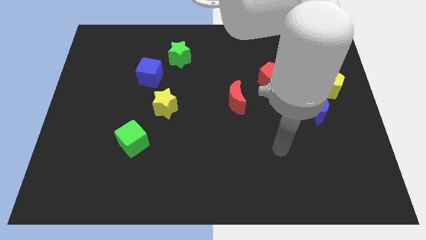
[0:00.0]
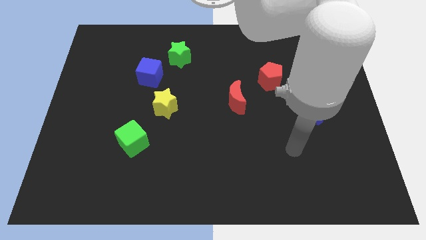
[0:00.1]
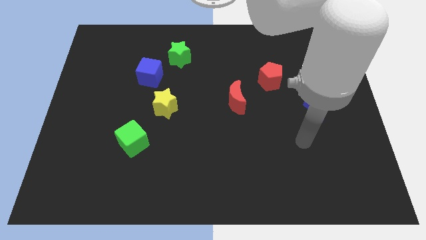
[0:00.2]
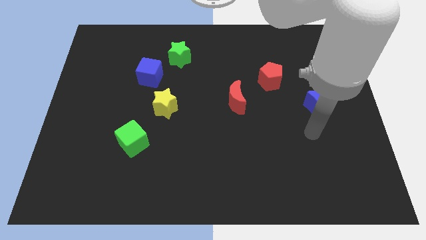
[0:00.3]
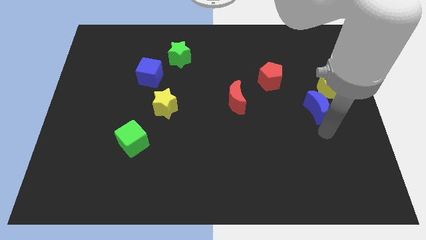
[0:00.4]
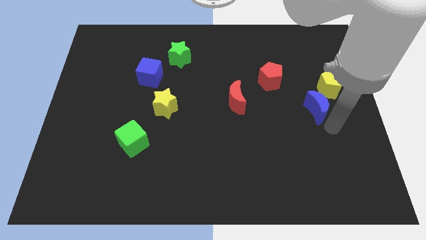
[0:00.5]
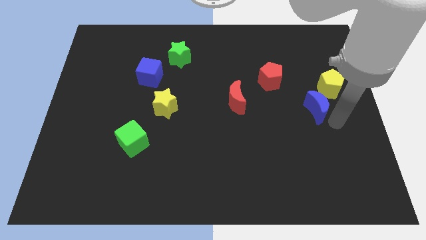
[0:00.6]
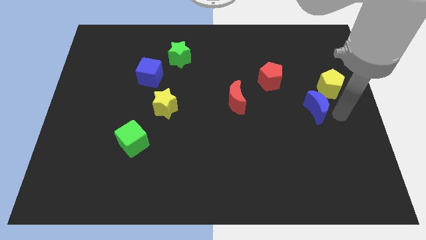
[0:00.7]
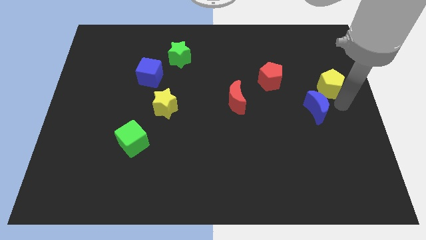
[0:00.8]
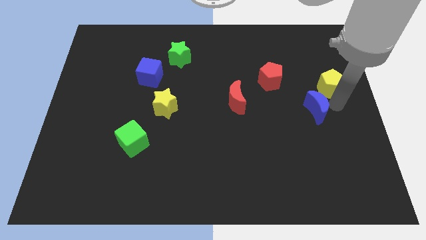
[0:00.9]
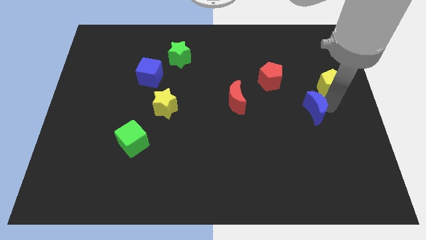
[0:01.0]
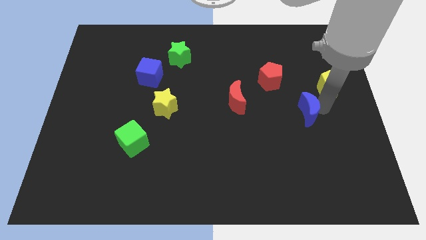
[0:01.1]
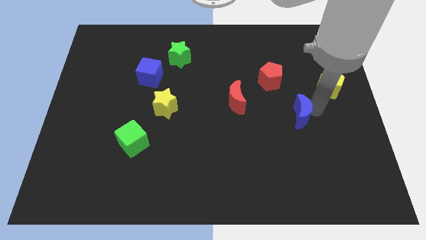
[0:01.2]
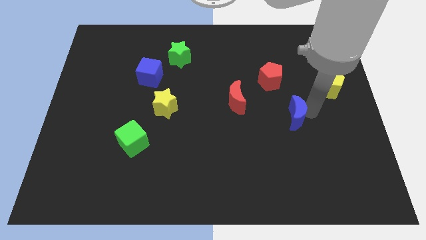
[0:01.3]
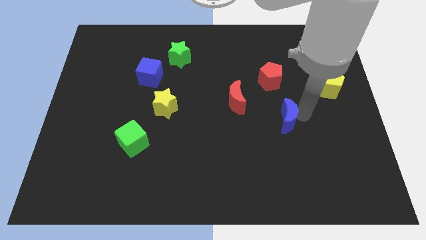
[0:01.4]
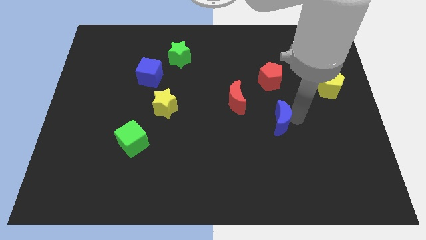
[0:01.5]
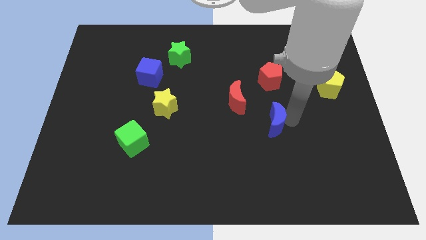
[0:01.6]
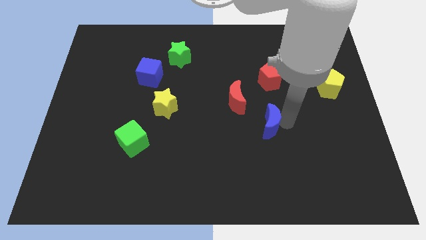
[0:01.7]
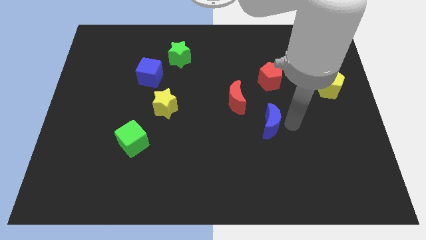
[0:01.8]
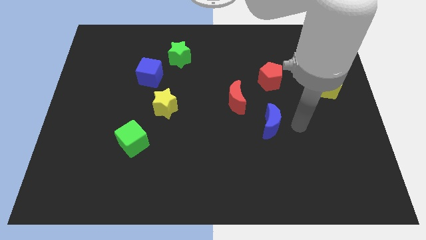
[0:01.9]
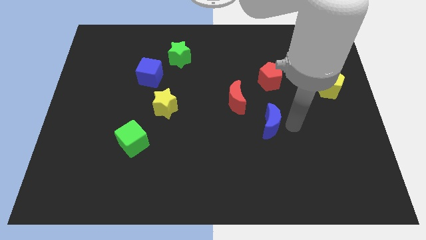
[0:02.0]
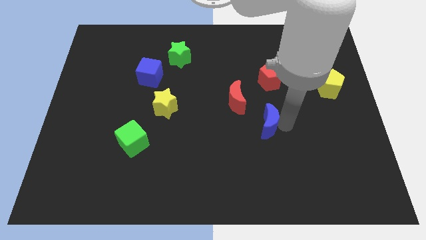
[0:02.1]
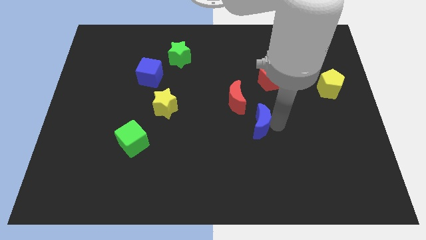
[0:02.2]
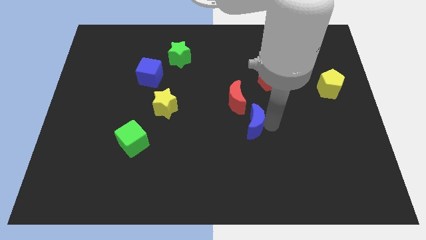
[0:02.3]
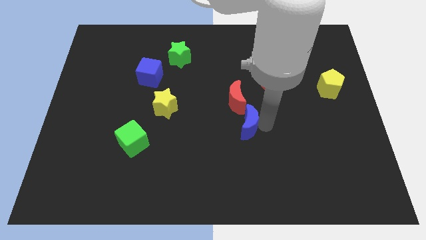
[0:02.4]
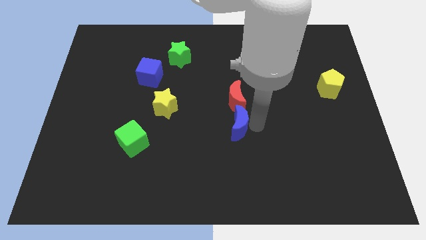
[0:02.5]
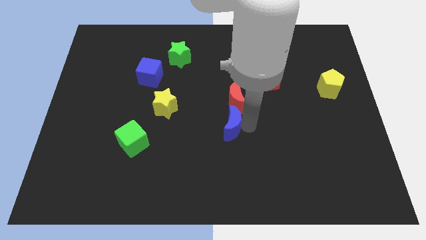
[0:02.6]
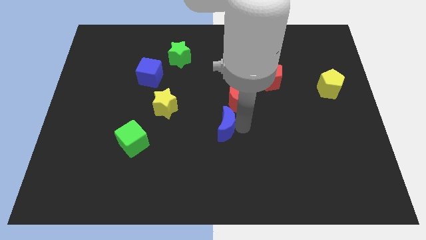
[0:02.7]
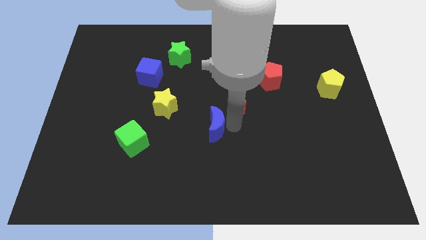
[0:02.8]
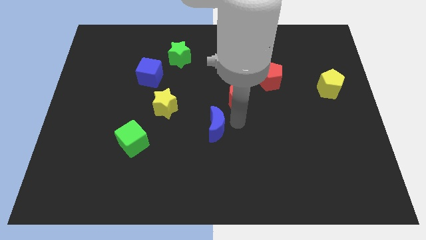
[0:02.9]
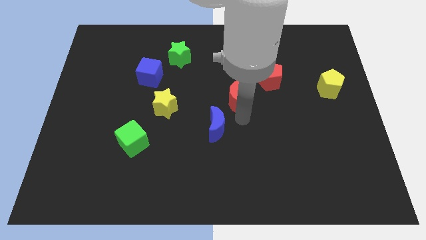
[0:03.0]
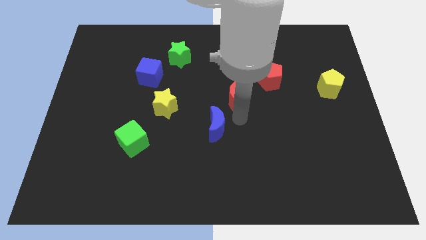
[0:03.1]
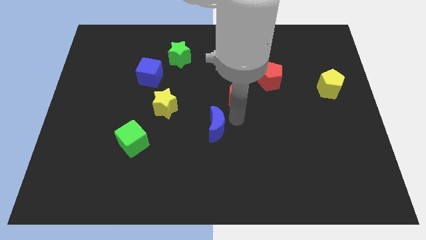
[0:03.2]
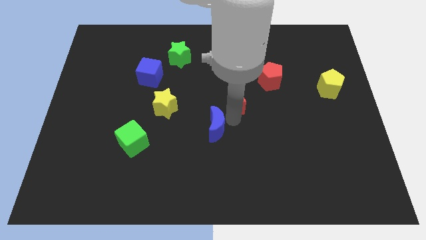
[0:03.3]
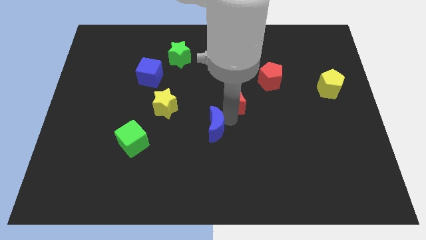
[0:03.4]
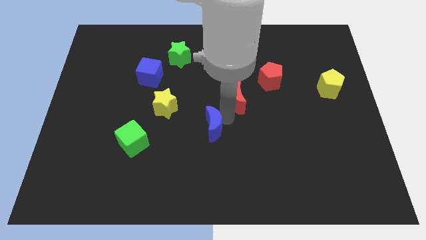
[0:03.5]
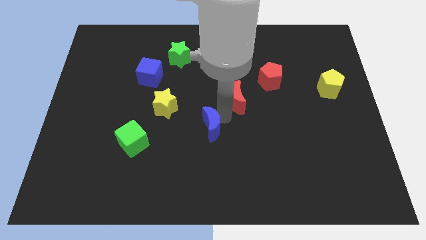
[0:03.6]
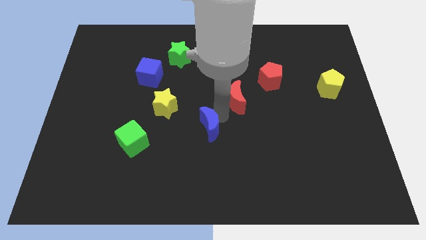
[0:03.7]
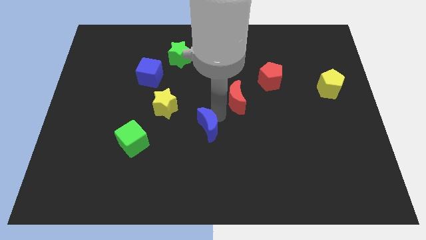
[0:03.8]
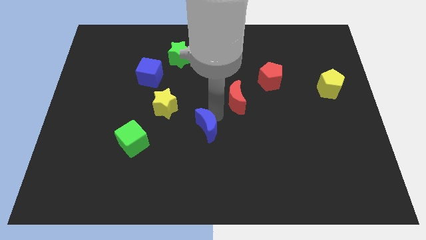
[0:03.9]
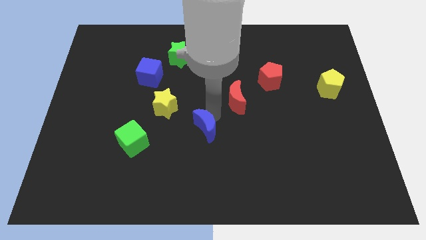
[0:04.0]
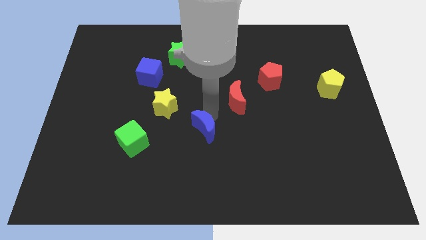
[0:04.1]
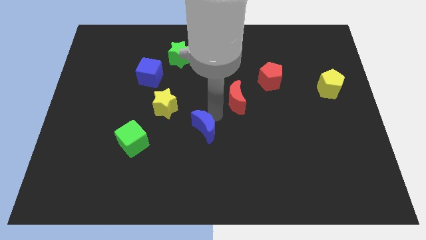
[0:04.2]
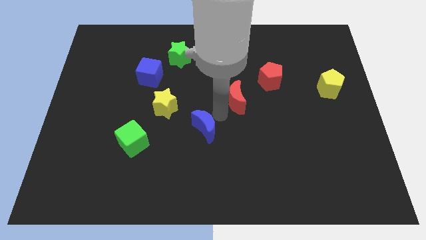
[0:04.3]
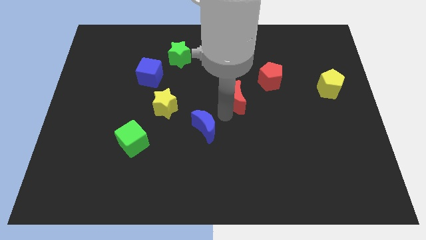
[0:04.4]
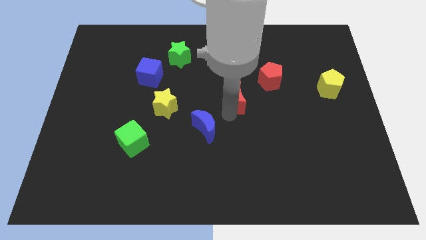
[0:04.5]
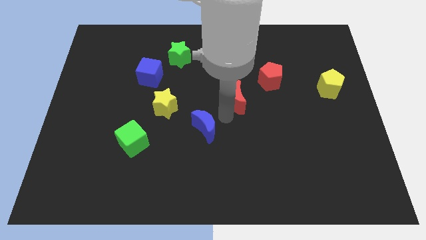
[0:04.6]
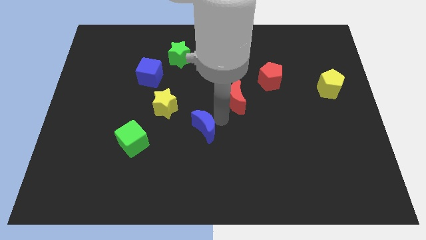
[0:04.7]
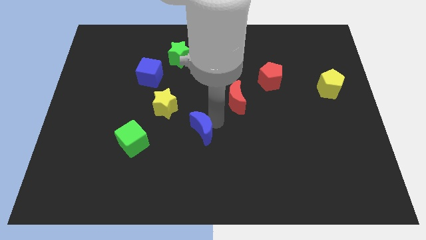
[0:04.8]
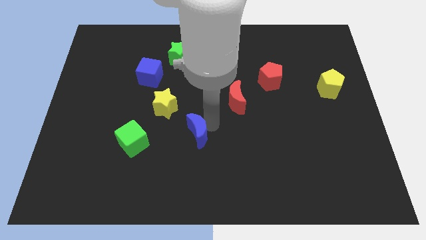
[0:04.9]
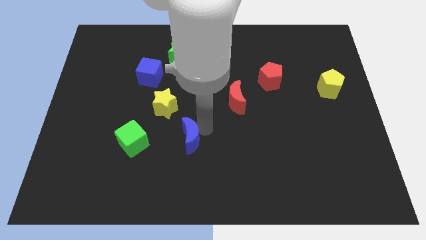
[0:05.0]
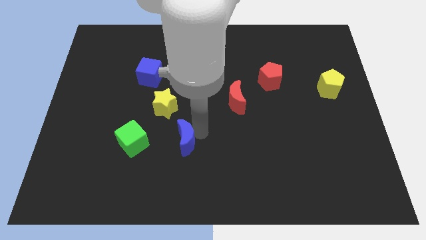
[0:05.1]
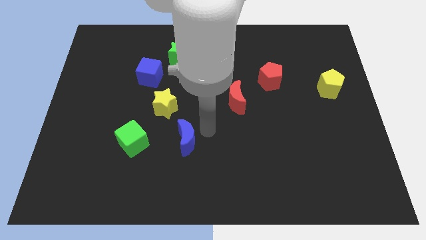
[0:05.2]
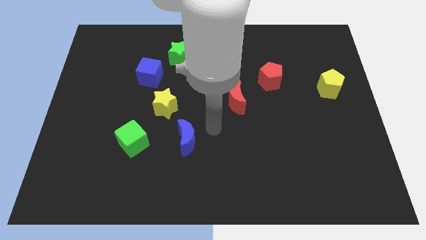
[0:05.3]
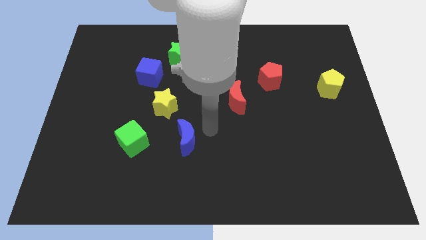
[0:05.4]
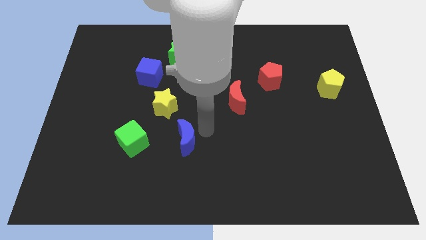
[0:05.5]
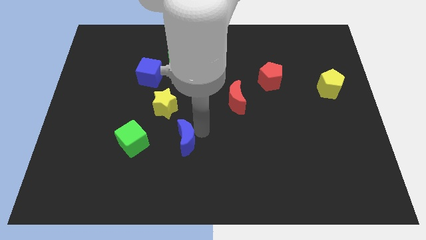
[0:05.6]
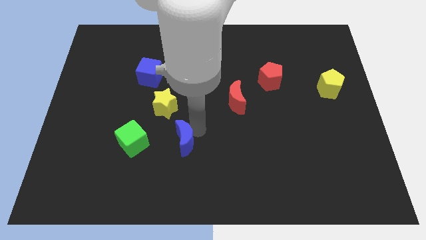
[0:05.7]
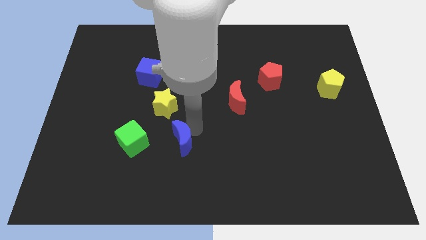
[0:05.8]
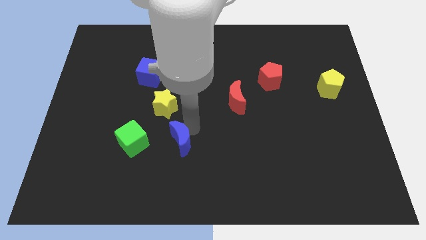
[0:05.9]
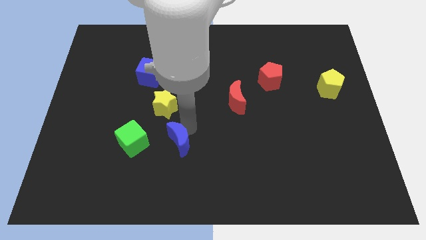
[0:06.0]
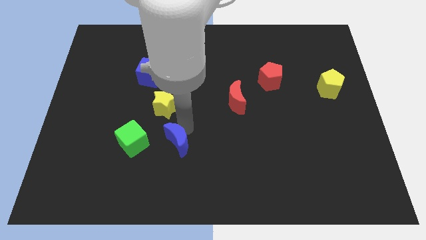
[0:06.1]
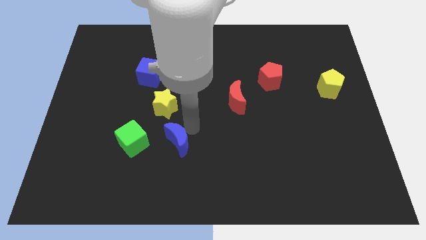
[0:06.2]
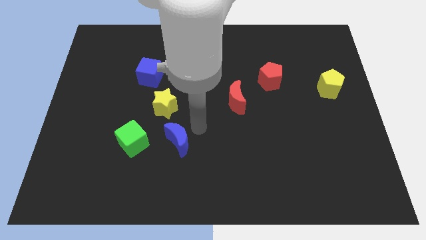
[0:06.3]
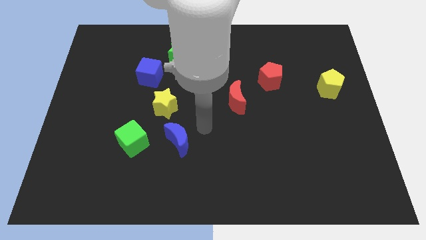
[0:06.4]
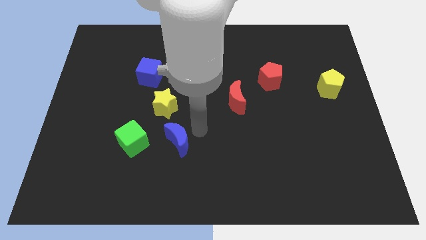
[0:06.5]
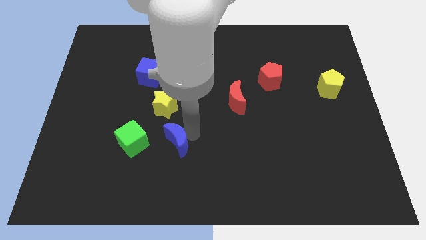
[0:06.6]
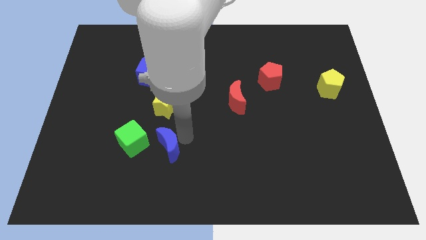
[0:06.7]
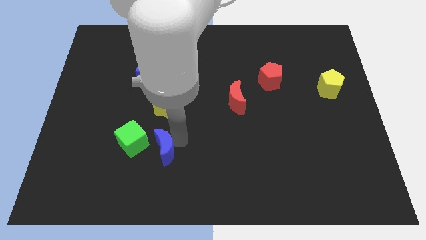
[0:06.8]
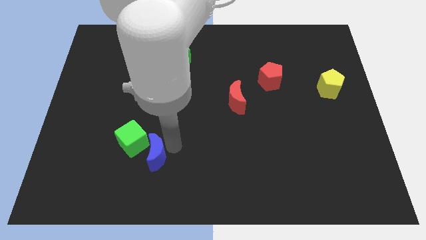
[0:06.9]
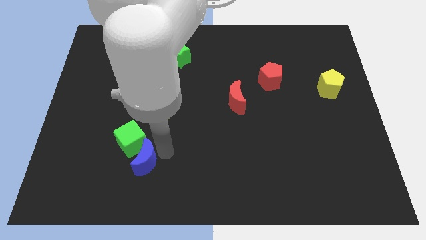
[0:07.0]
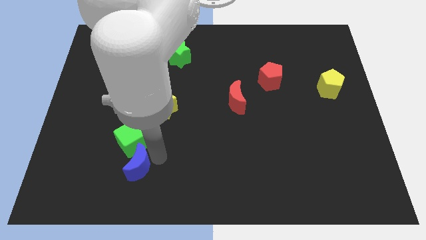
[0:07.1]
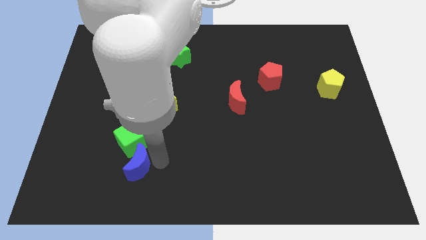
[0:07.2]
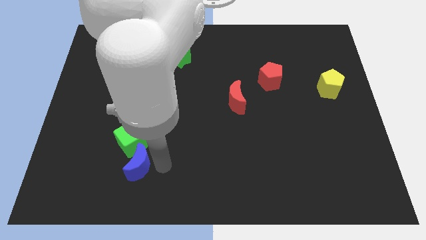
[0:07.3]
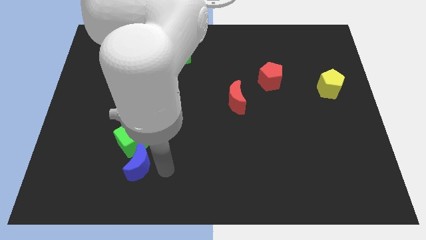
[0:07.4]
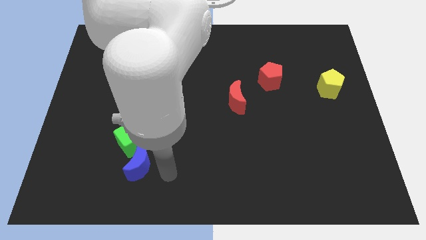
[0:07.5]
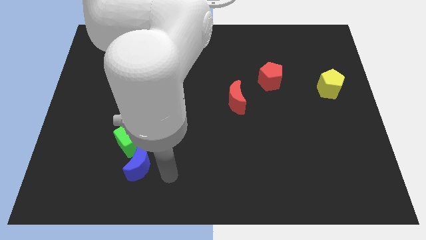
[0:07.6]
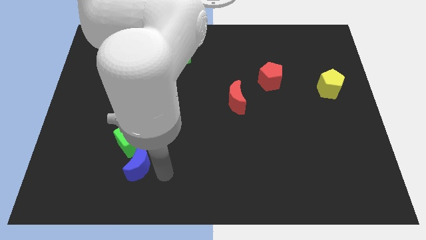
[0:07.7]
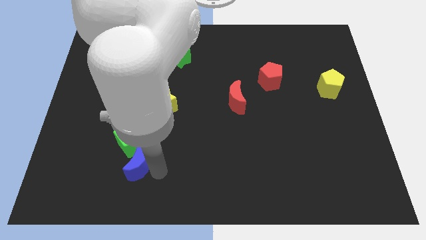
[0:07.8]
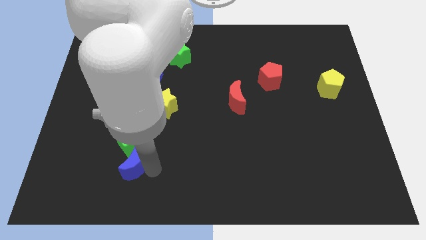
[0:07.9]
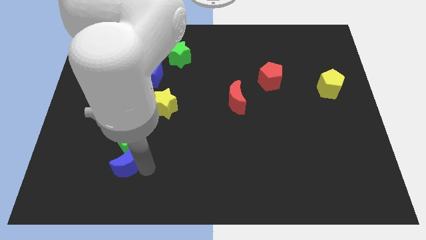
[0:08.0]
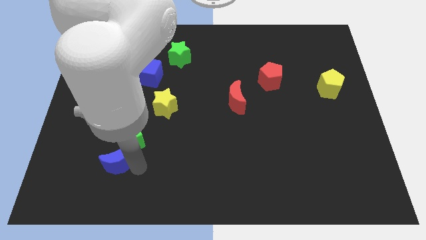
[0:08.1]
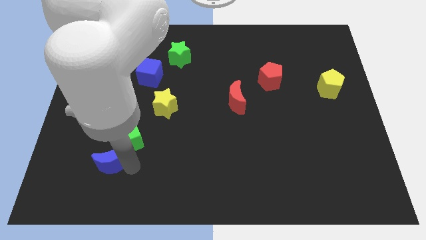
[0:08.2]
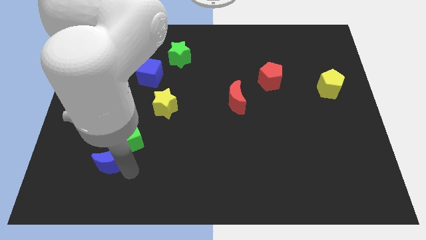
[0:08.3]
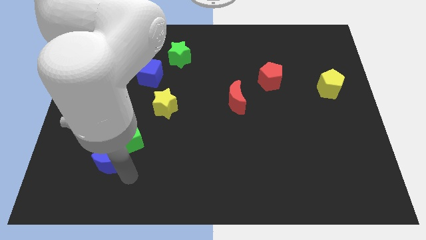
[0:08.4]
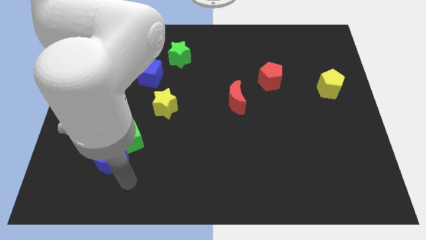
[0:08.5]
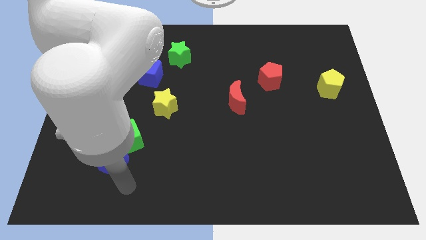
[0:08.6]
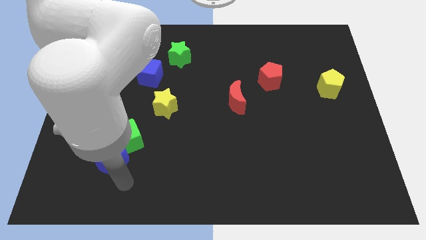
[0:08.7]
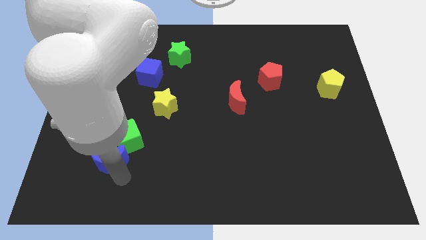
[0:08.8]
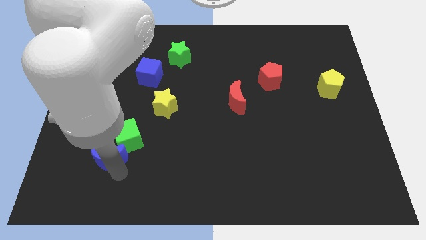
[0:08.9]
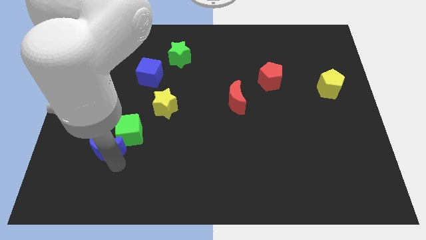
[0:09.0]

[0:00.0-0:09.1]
put the blue moon left of the green cube
